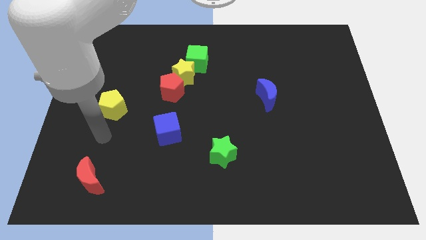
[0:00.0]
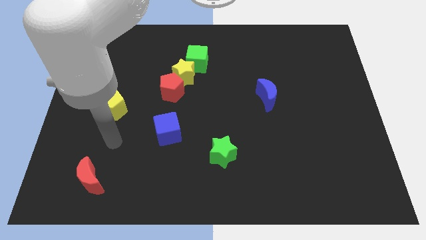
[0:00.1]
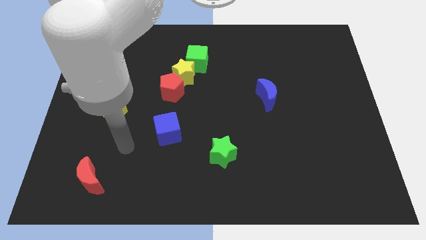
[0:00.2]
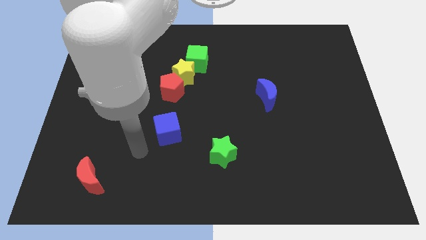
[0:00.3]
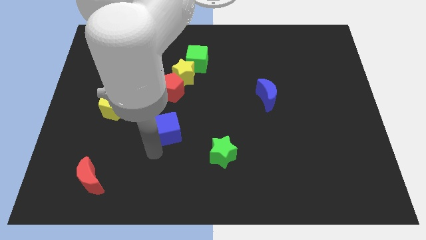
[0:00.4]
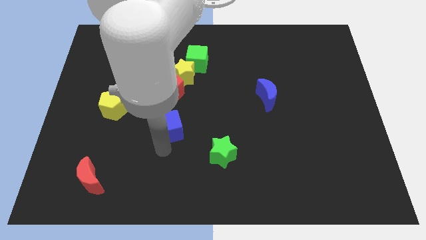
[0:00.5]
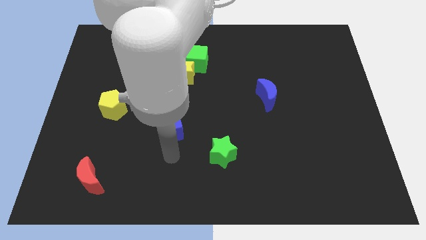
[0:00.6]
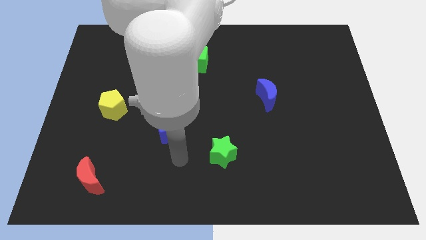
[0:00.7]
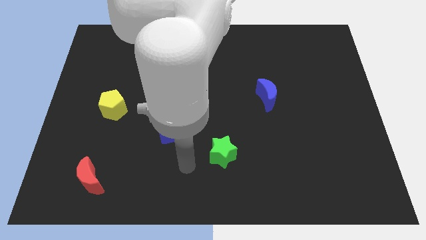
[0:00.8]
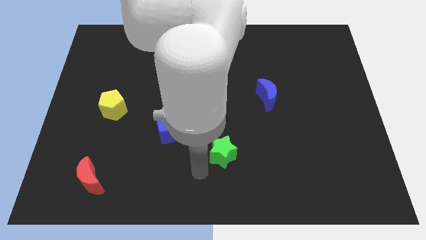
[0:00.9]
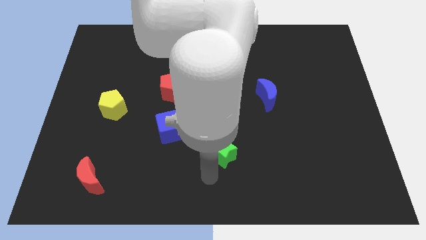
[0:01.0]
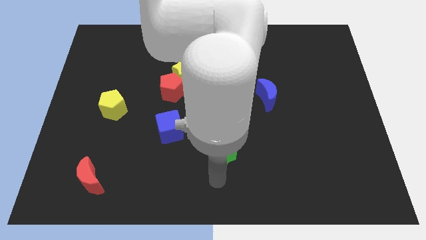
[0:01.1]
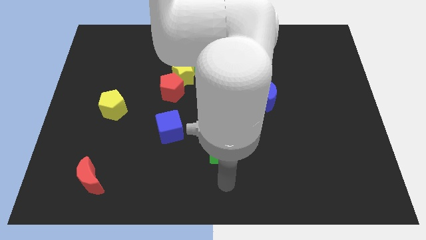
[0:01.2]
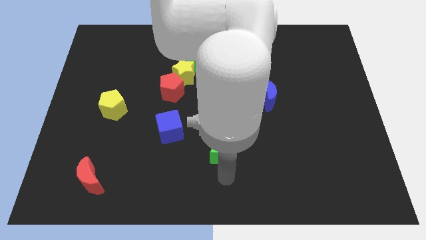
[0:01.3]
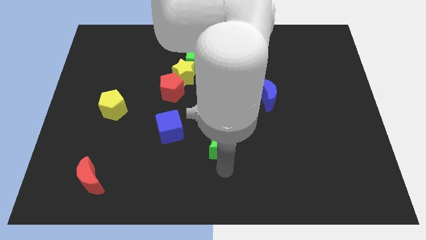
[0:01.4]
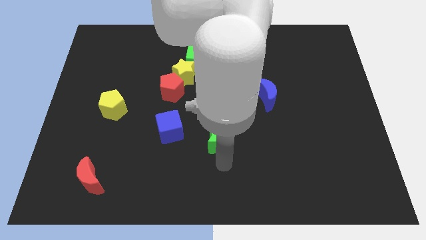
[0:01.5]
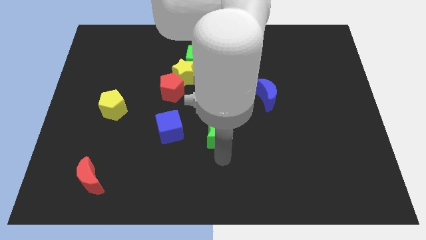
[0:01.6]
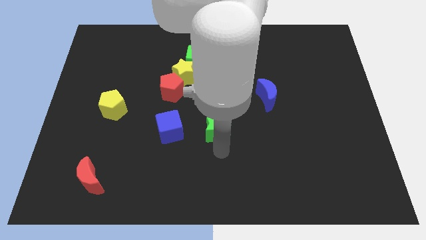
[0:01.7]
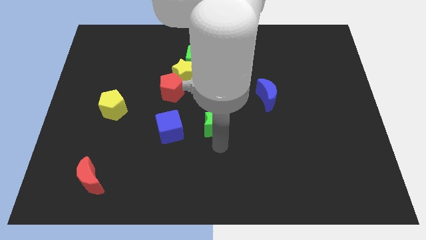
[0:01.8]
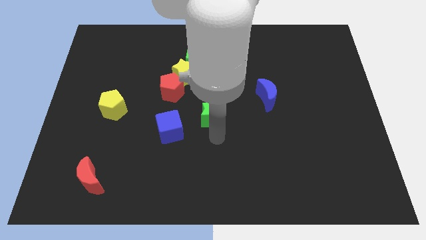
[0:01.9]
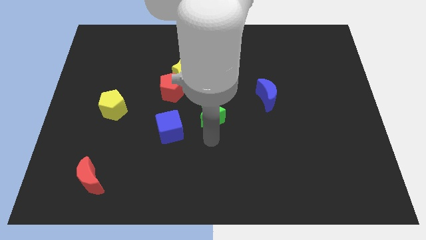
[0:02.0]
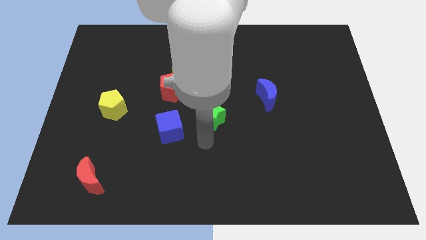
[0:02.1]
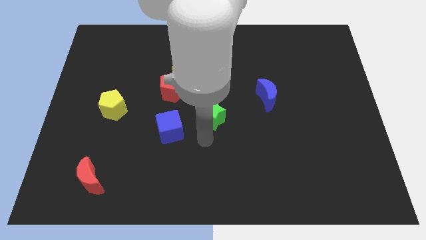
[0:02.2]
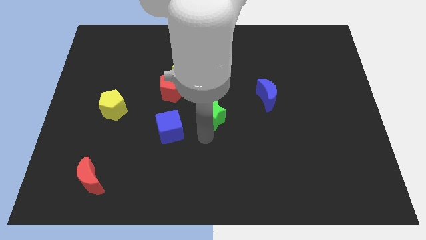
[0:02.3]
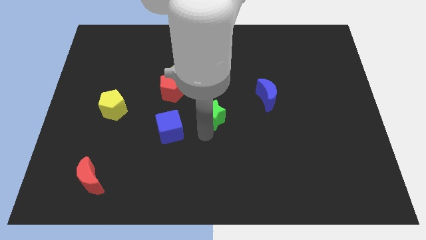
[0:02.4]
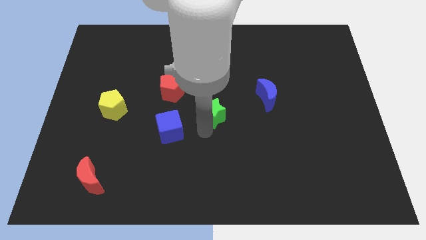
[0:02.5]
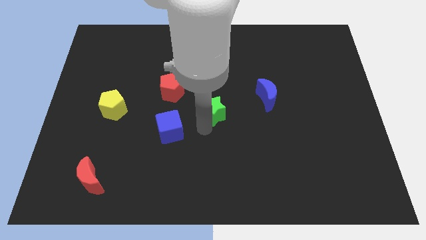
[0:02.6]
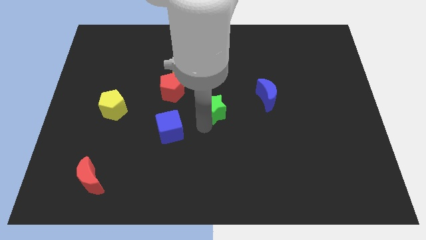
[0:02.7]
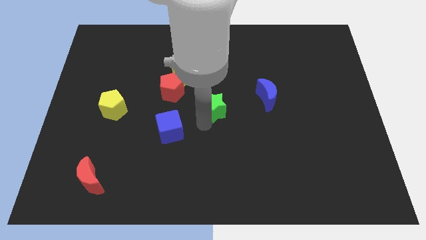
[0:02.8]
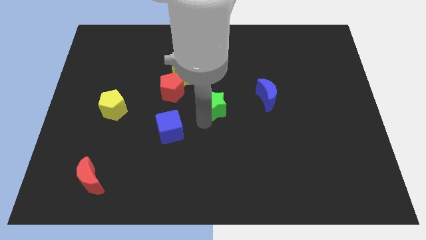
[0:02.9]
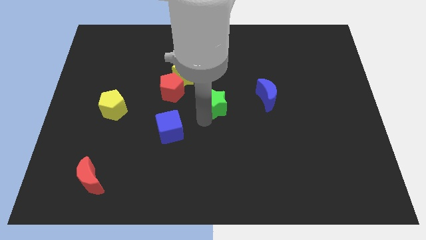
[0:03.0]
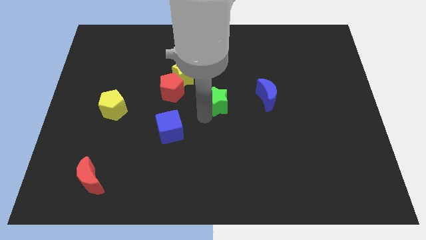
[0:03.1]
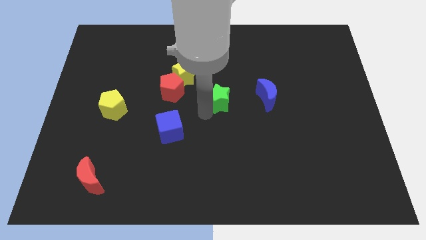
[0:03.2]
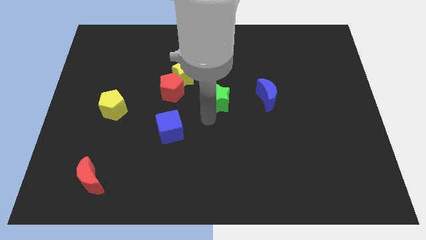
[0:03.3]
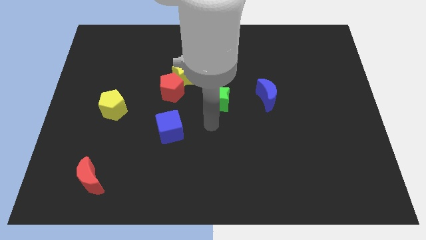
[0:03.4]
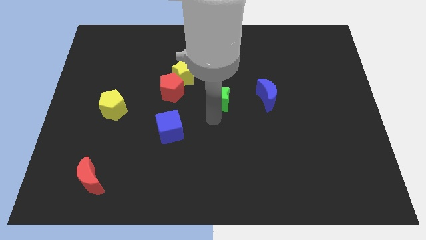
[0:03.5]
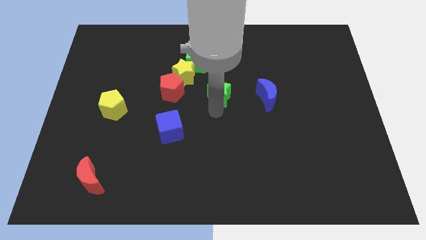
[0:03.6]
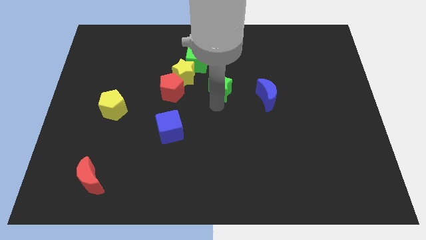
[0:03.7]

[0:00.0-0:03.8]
move the green star right of the yellow star

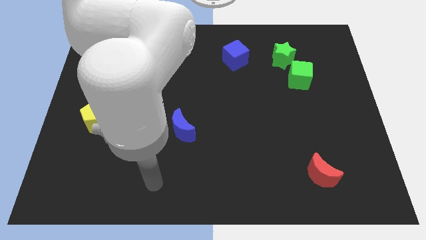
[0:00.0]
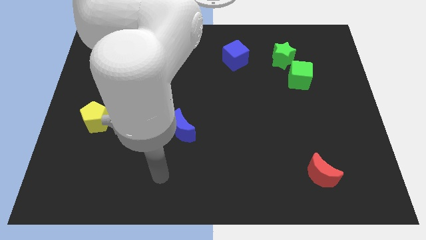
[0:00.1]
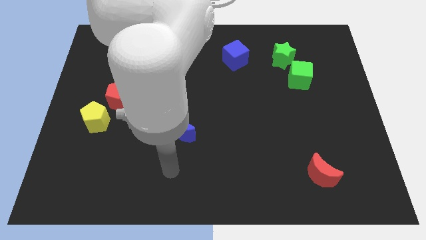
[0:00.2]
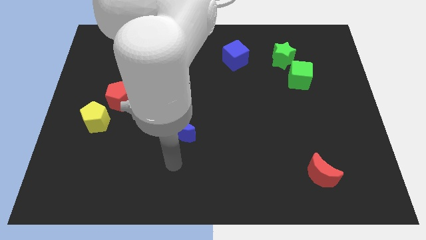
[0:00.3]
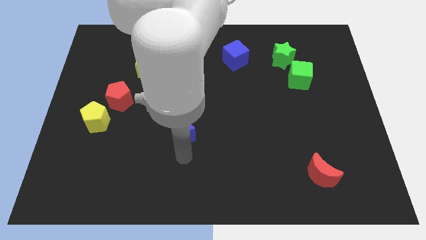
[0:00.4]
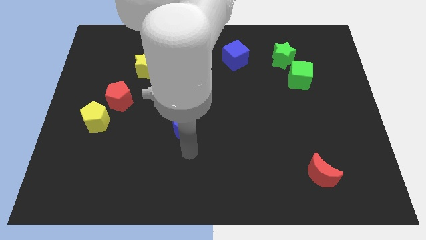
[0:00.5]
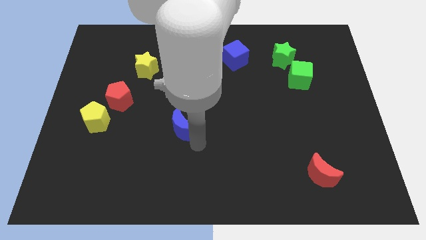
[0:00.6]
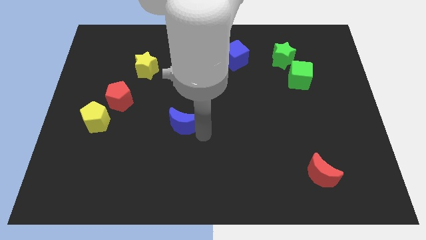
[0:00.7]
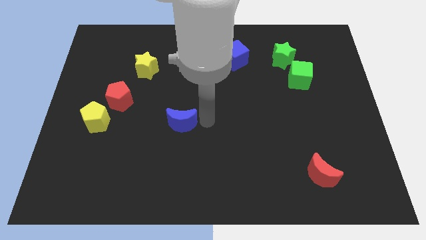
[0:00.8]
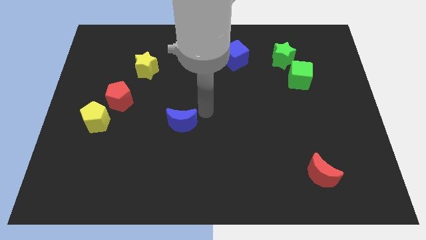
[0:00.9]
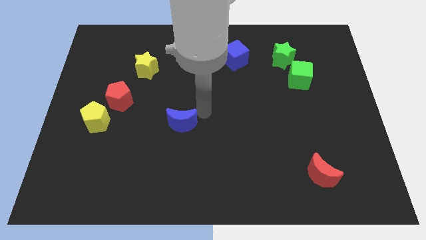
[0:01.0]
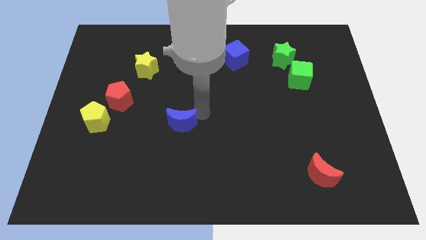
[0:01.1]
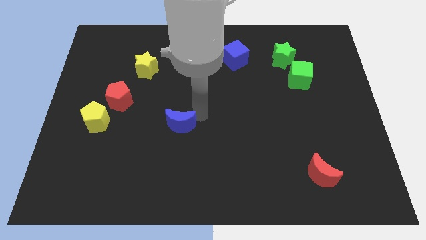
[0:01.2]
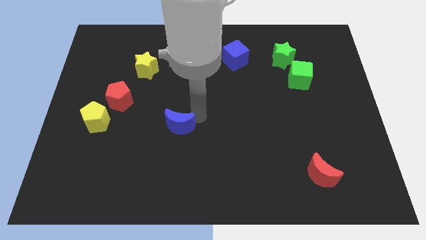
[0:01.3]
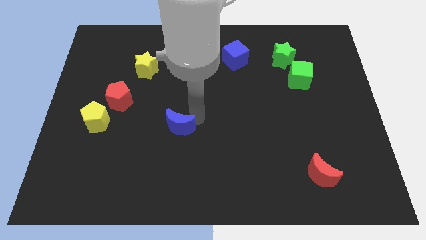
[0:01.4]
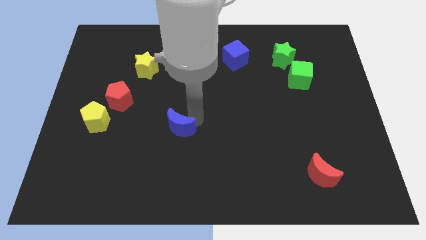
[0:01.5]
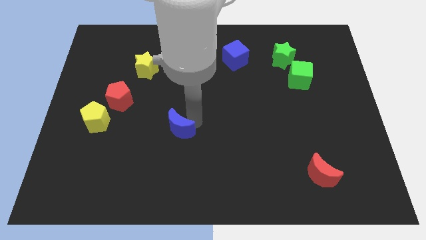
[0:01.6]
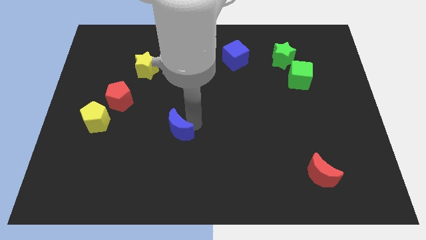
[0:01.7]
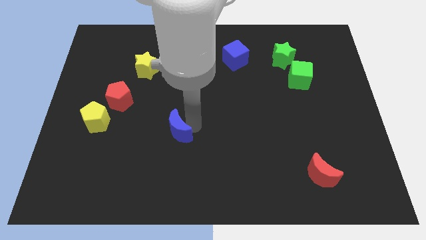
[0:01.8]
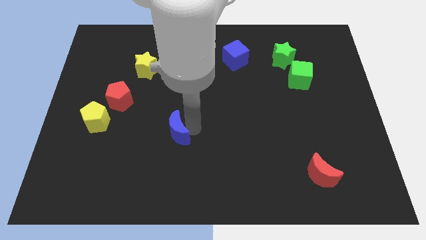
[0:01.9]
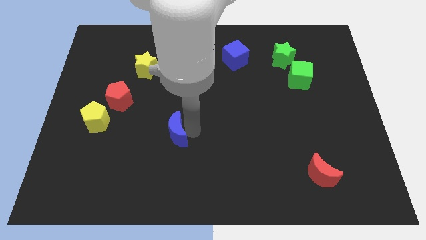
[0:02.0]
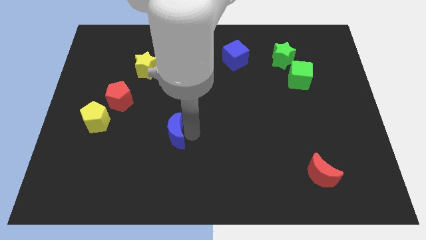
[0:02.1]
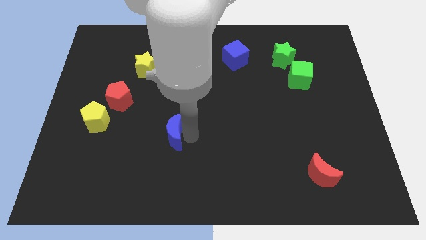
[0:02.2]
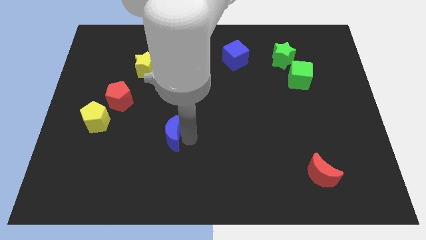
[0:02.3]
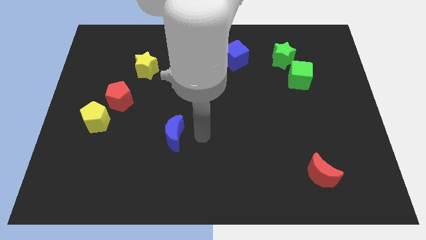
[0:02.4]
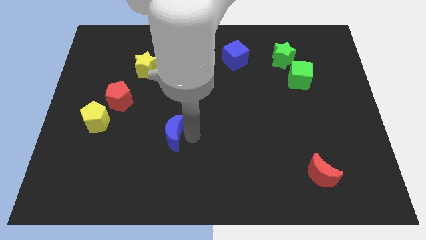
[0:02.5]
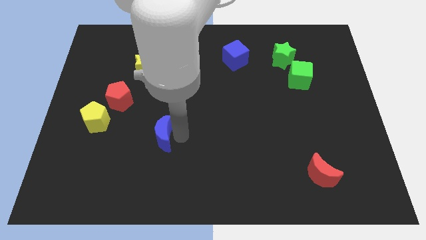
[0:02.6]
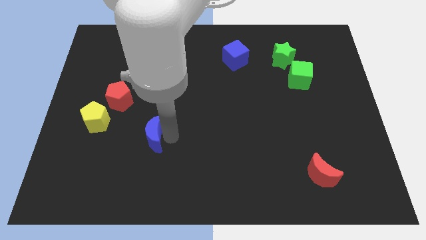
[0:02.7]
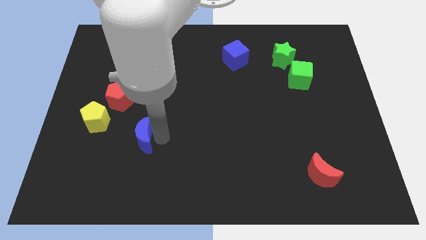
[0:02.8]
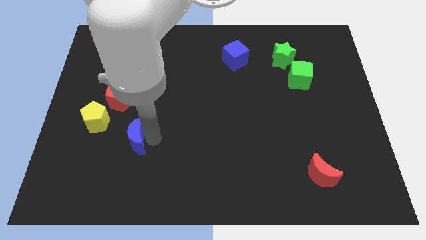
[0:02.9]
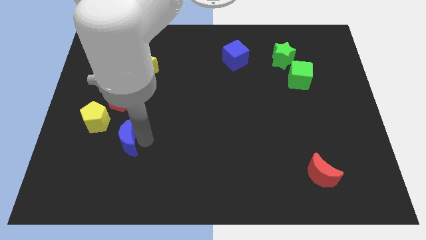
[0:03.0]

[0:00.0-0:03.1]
push the blue moon below the red pentagon
